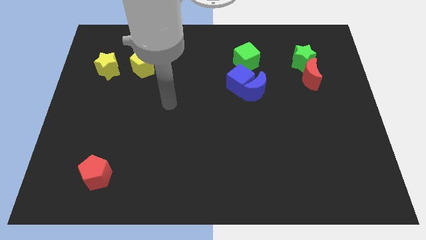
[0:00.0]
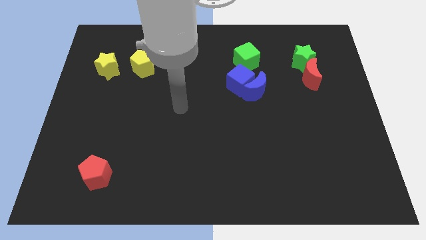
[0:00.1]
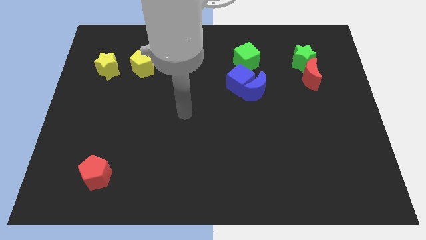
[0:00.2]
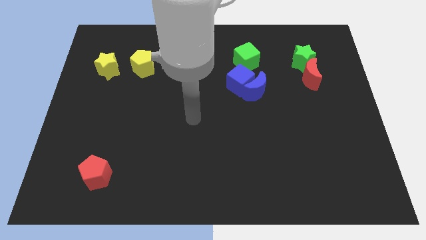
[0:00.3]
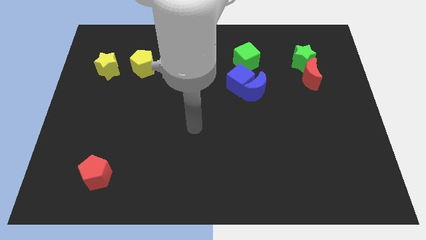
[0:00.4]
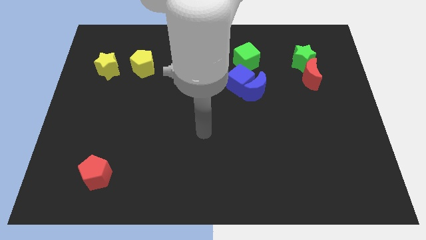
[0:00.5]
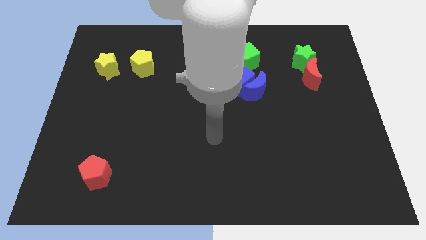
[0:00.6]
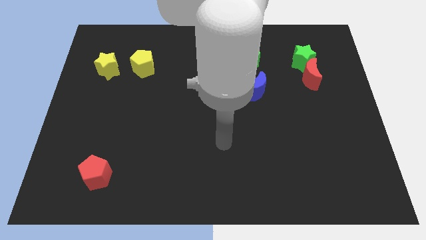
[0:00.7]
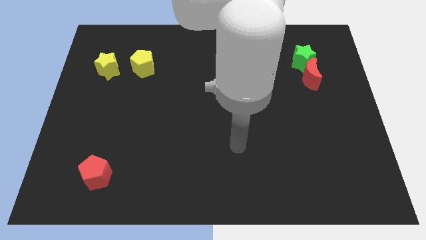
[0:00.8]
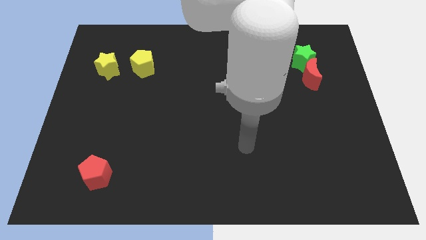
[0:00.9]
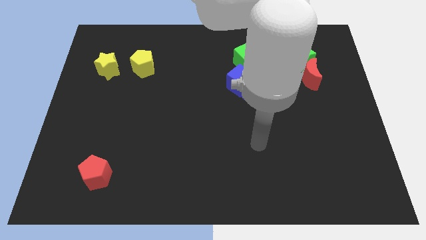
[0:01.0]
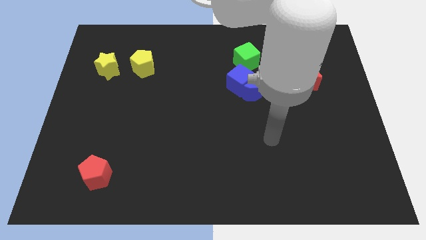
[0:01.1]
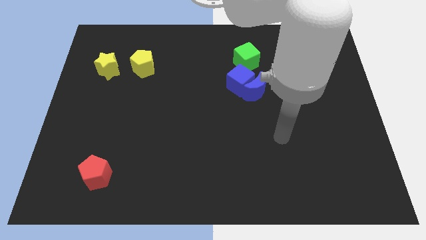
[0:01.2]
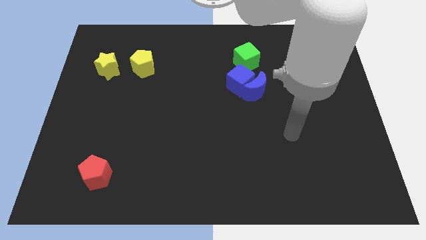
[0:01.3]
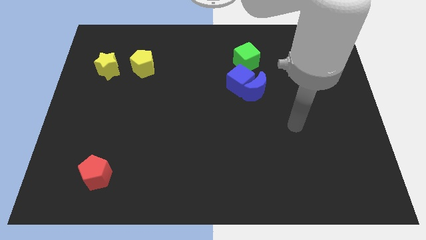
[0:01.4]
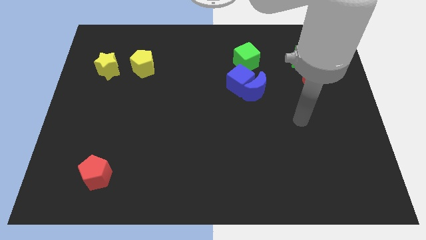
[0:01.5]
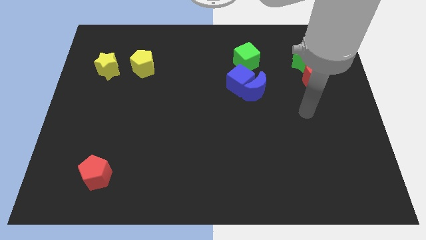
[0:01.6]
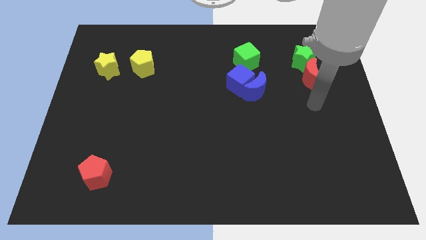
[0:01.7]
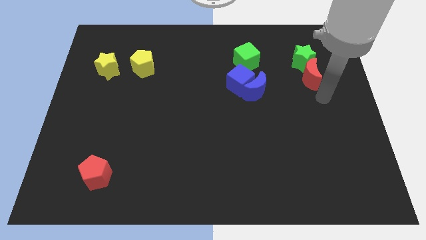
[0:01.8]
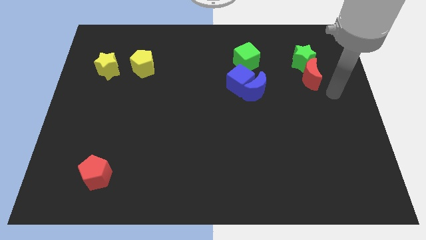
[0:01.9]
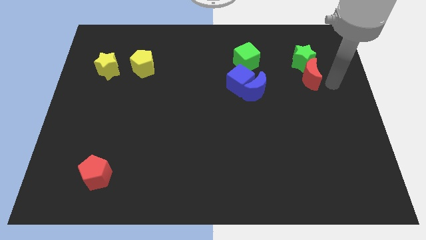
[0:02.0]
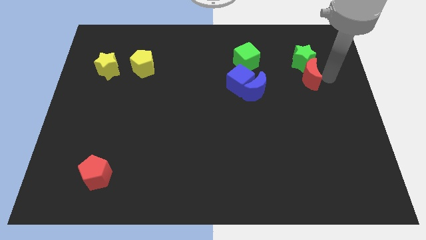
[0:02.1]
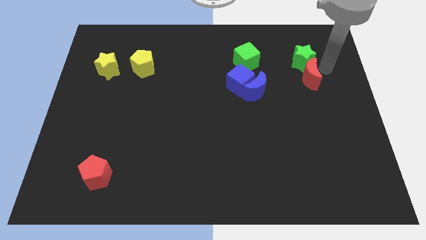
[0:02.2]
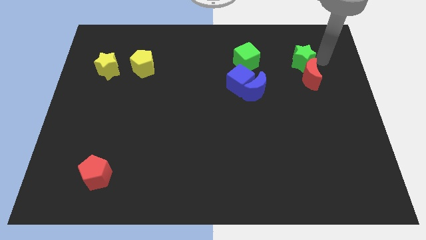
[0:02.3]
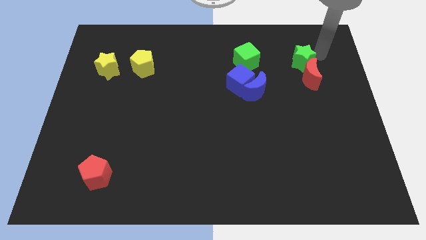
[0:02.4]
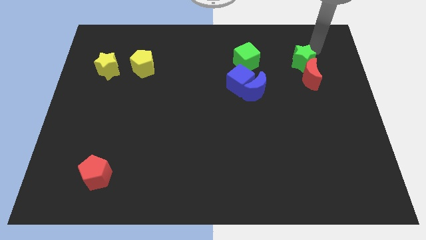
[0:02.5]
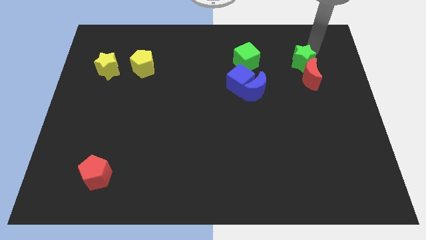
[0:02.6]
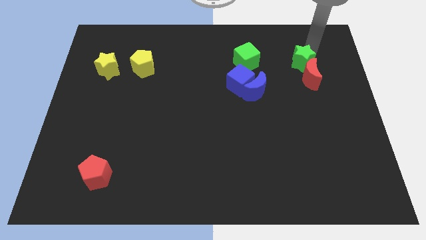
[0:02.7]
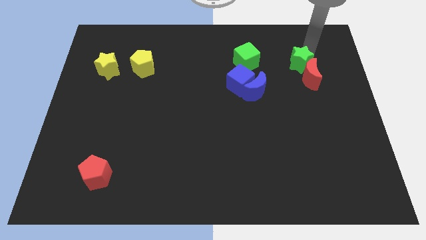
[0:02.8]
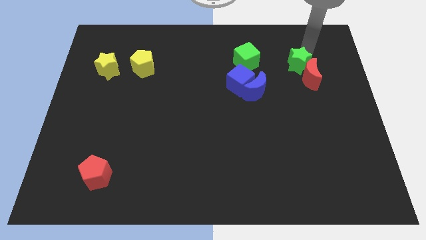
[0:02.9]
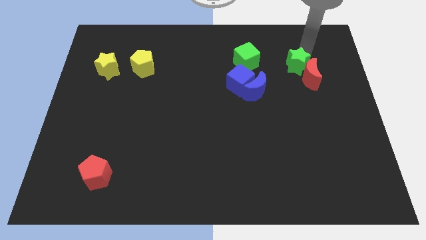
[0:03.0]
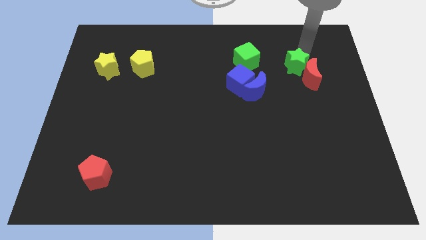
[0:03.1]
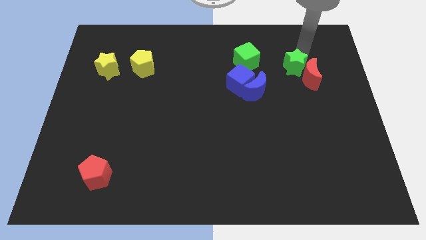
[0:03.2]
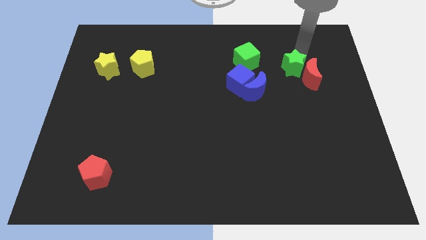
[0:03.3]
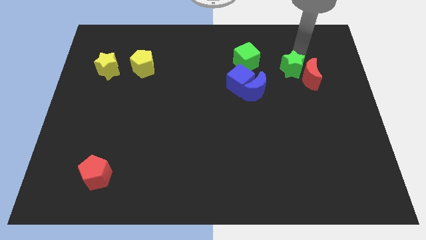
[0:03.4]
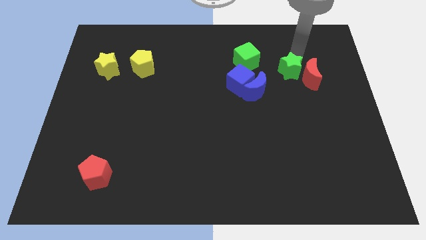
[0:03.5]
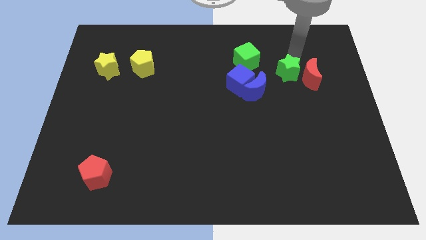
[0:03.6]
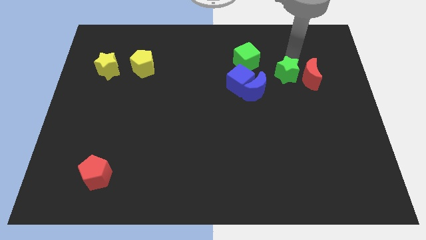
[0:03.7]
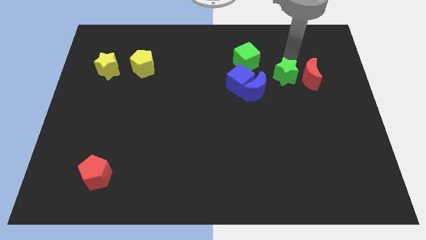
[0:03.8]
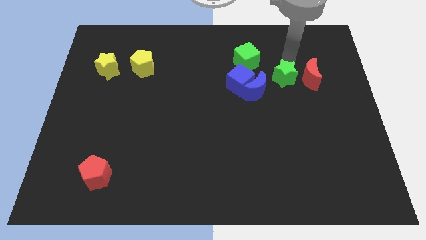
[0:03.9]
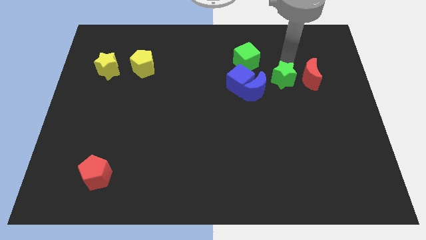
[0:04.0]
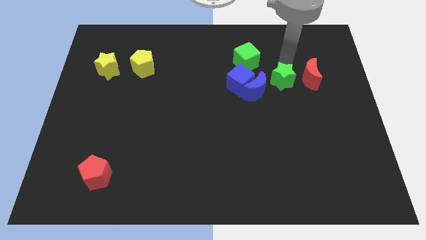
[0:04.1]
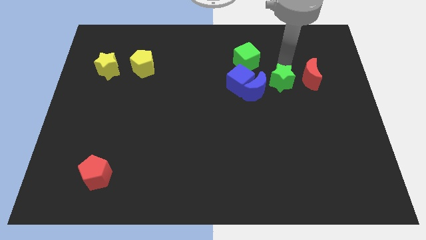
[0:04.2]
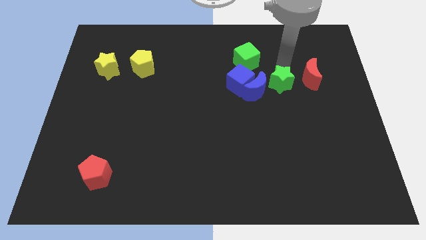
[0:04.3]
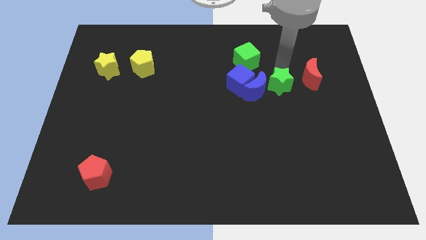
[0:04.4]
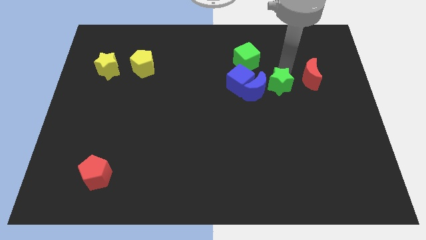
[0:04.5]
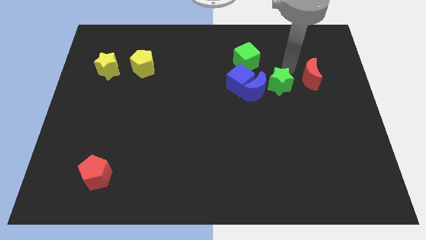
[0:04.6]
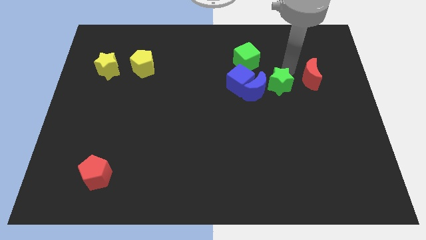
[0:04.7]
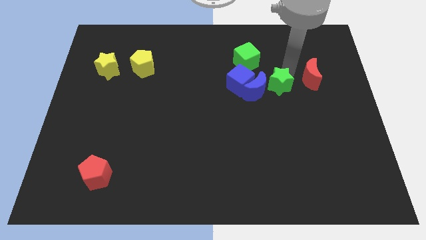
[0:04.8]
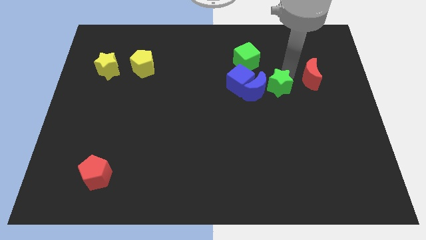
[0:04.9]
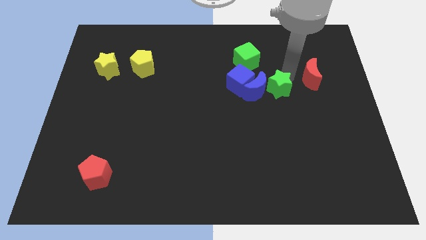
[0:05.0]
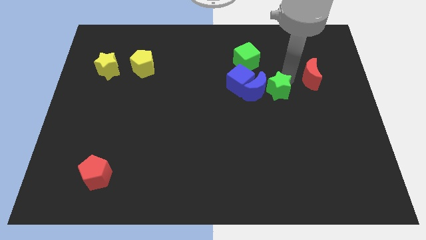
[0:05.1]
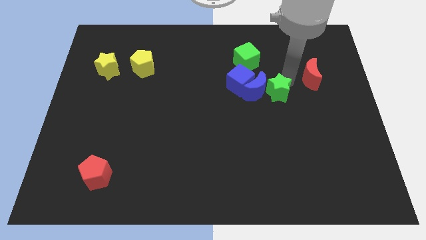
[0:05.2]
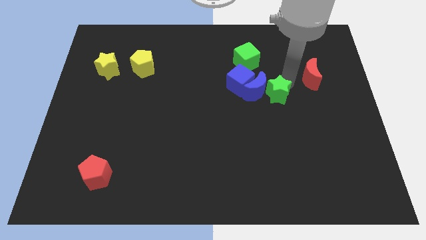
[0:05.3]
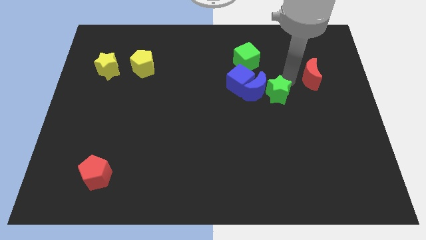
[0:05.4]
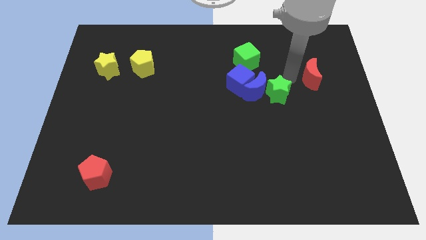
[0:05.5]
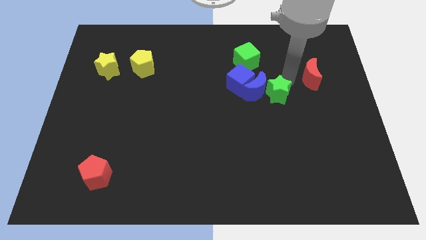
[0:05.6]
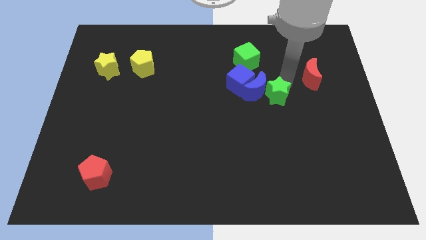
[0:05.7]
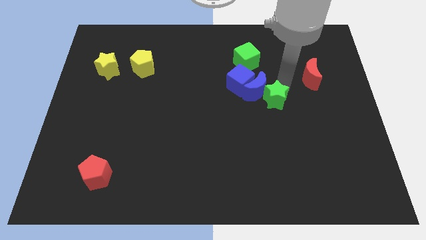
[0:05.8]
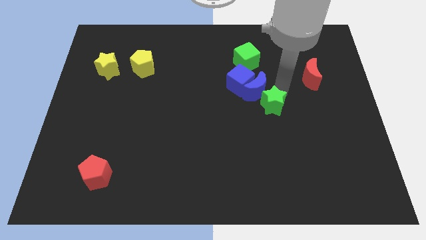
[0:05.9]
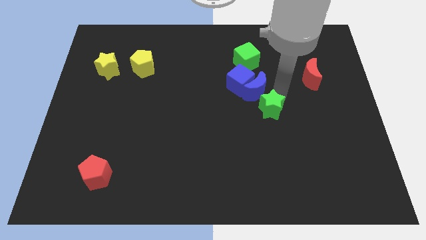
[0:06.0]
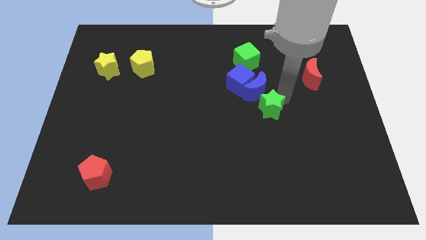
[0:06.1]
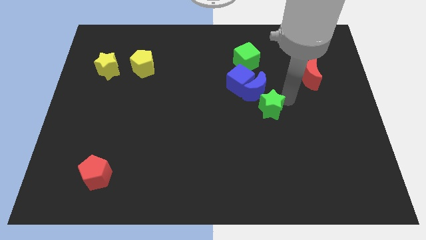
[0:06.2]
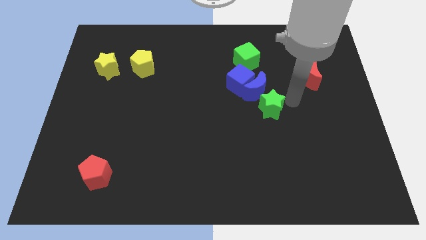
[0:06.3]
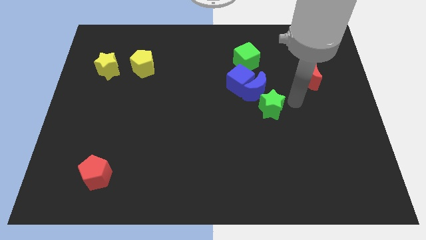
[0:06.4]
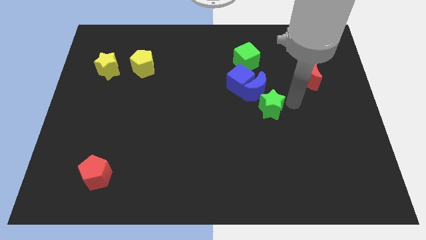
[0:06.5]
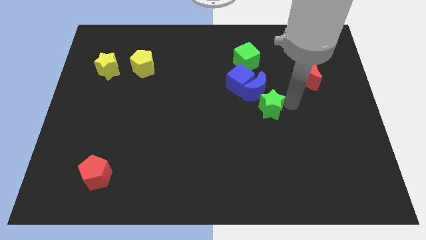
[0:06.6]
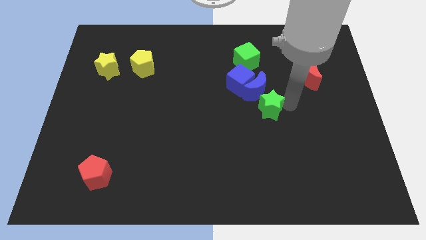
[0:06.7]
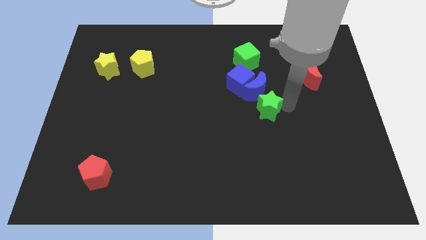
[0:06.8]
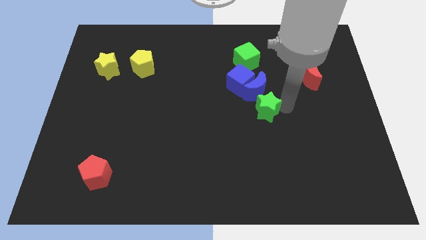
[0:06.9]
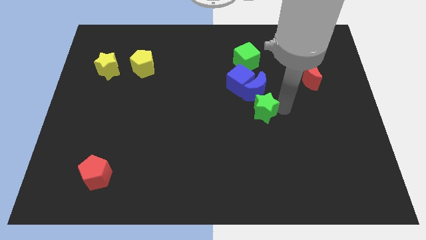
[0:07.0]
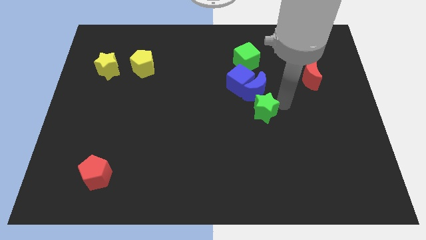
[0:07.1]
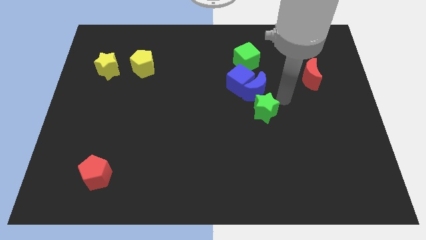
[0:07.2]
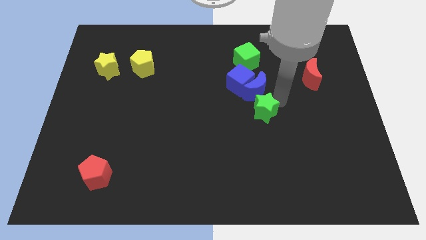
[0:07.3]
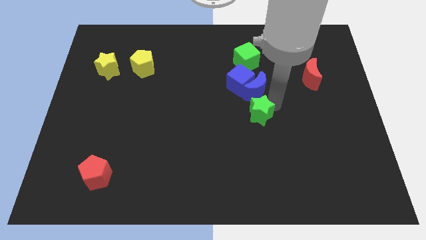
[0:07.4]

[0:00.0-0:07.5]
push the green star diagonally downwards and left
